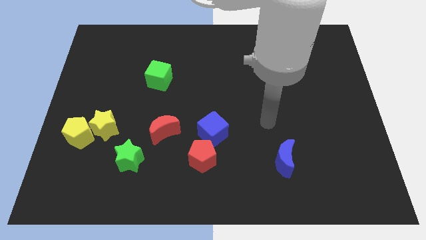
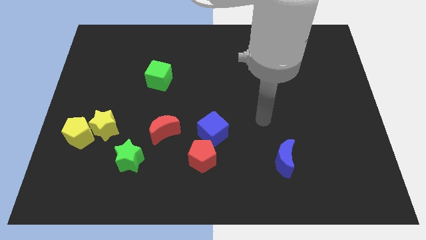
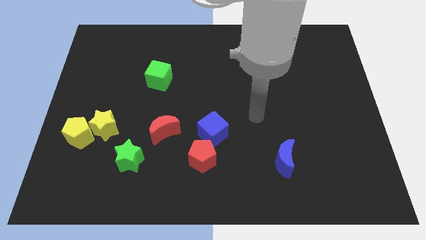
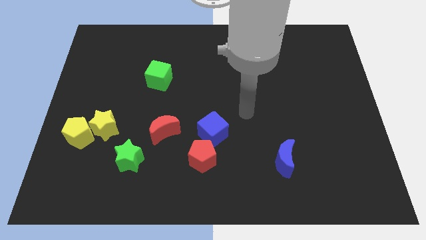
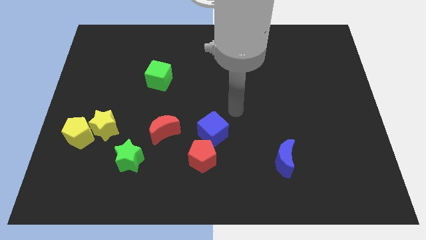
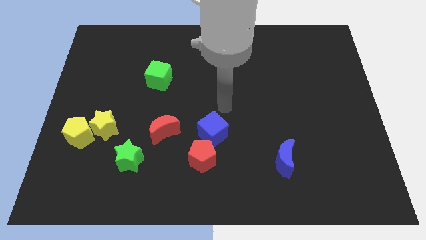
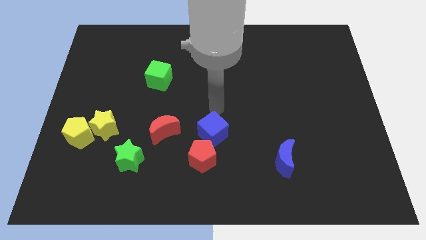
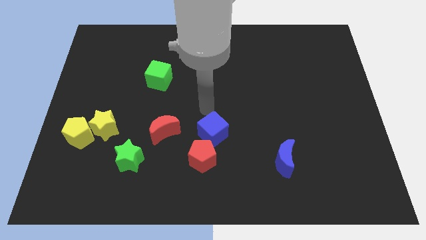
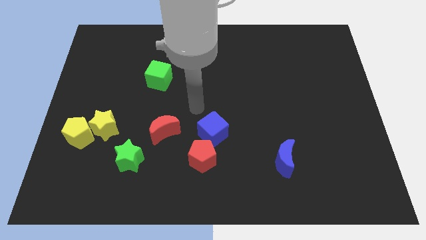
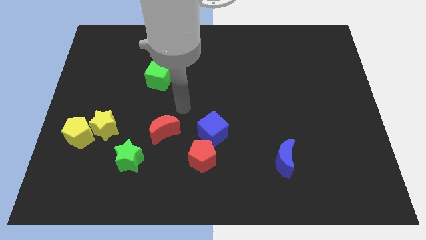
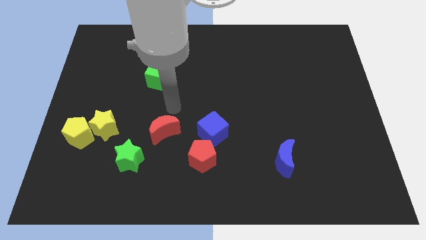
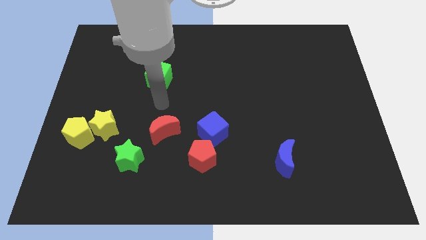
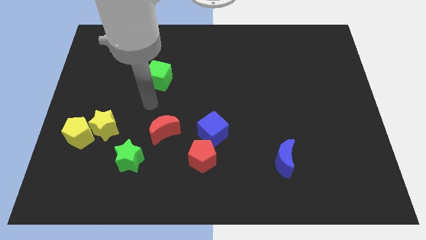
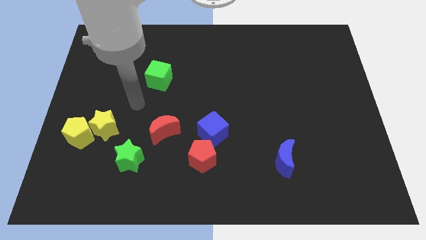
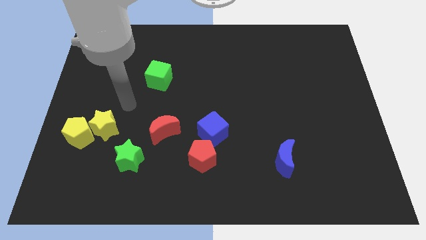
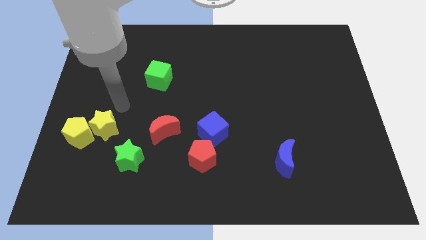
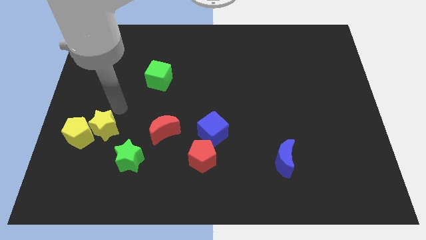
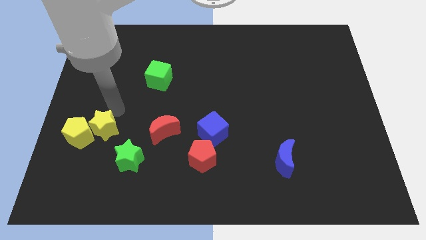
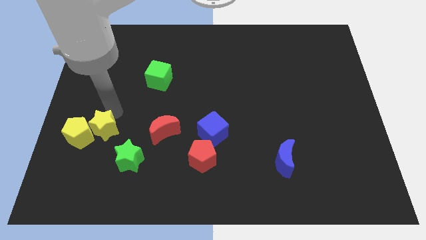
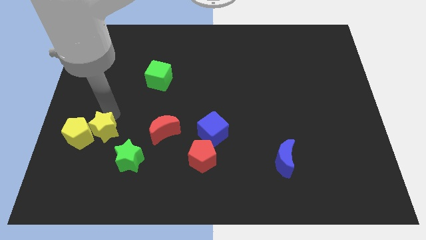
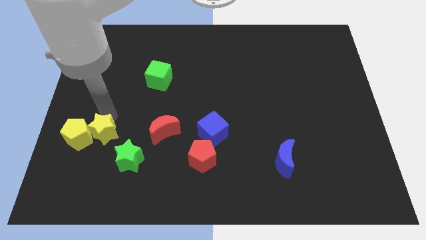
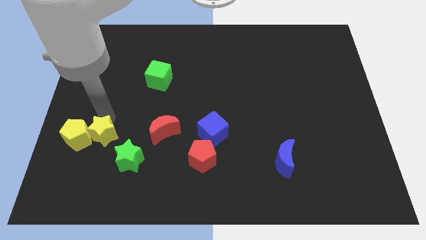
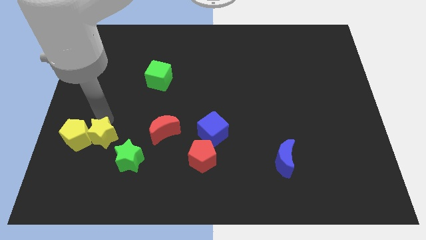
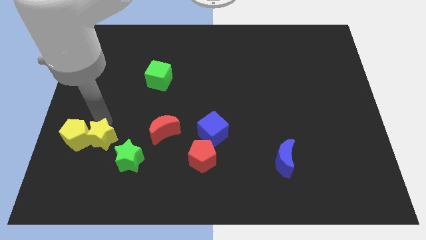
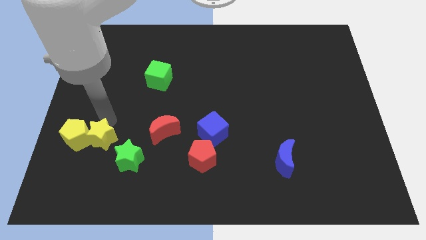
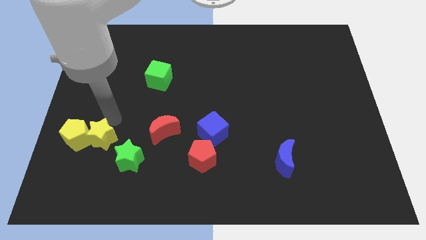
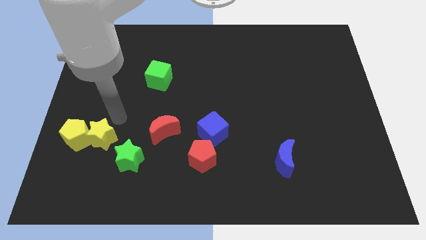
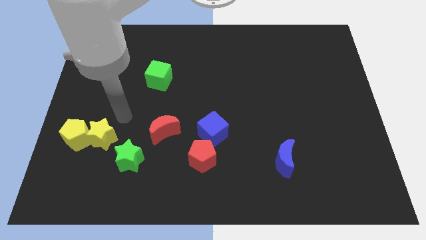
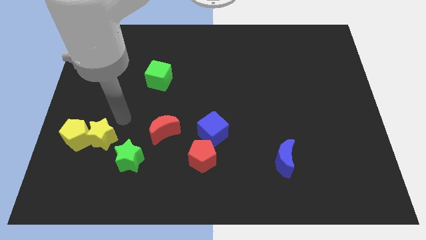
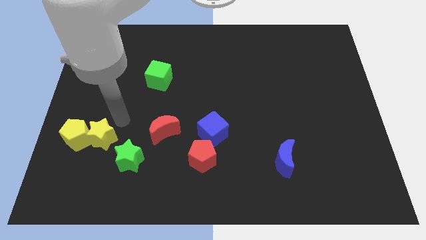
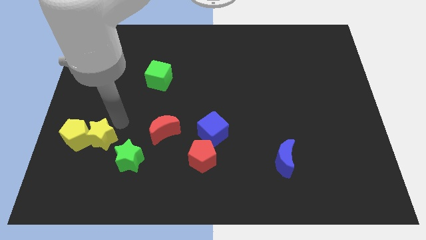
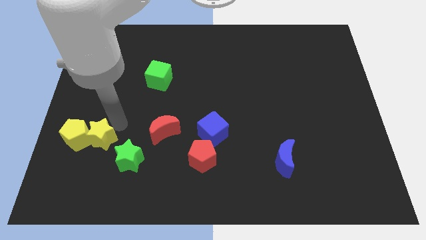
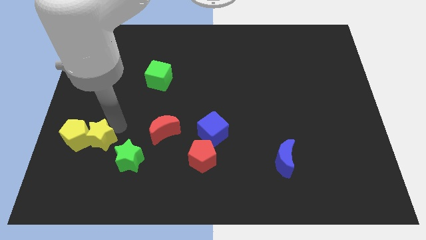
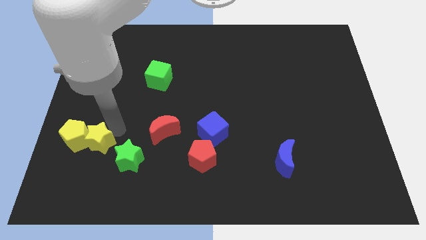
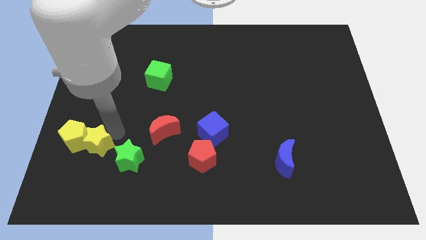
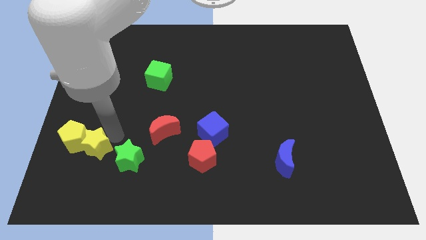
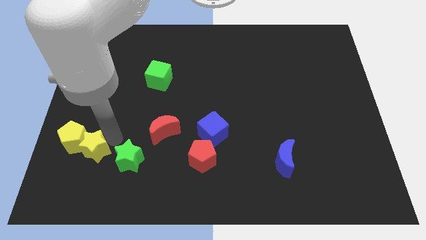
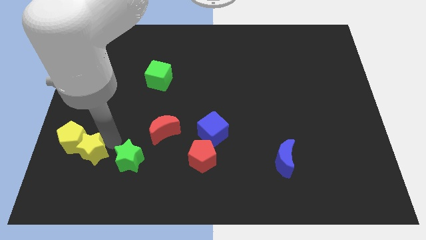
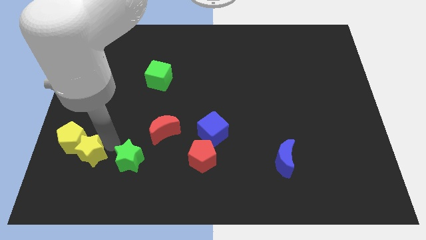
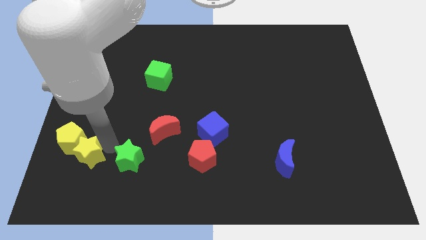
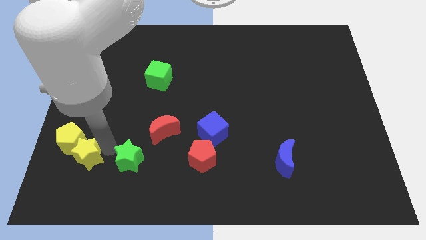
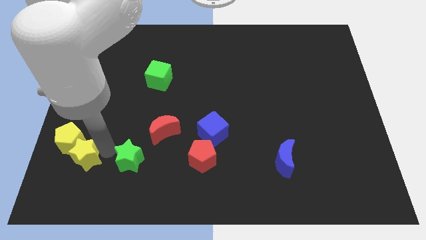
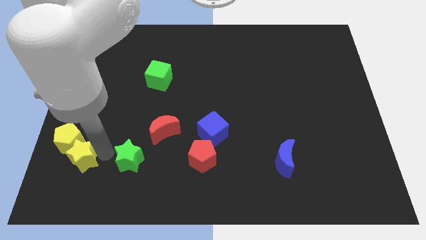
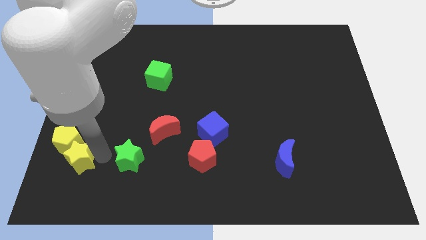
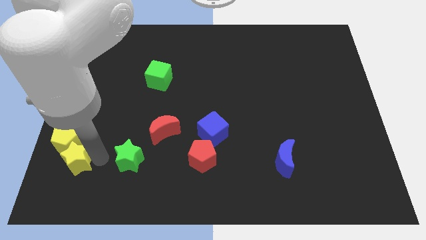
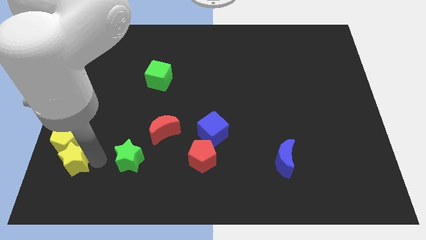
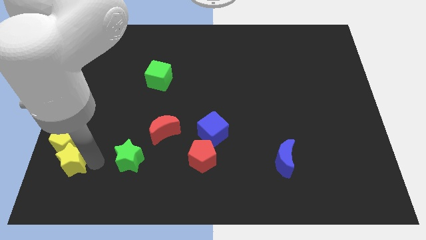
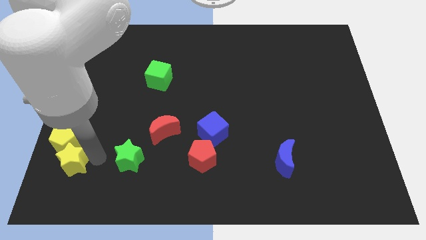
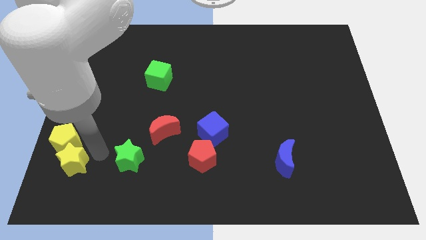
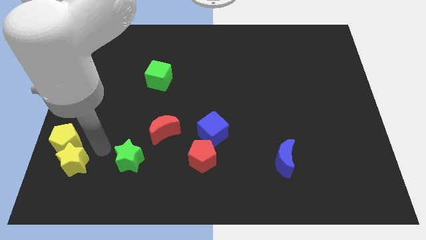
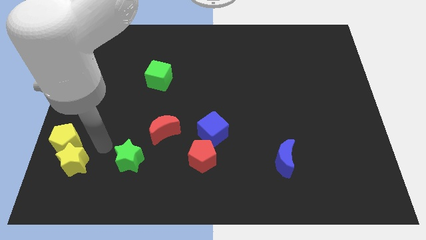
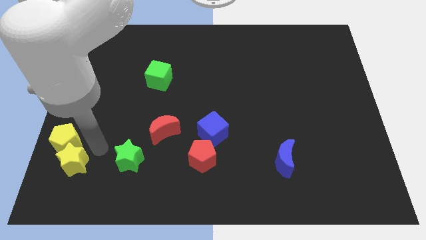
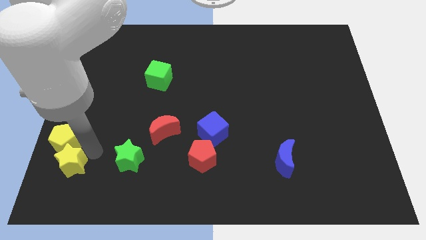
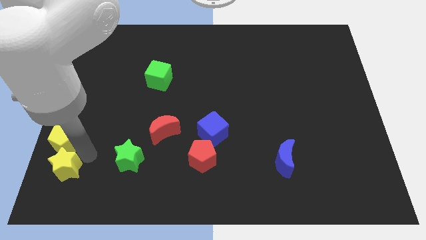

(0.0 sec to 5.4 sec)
push the yellow star to the bottom left of the board
